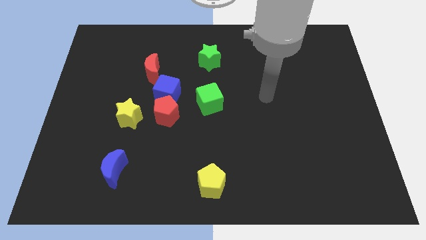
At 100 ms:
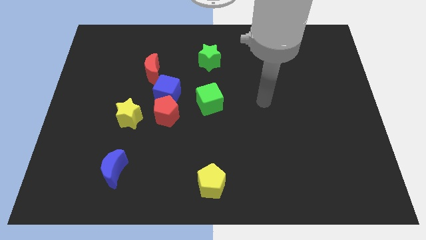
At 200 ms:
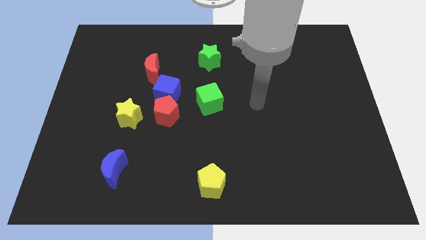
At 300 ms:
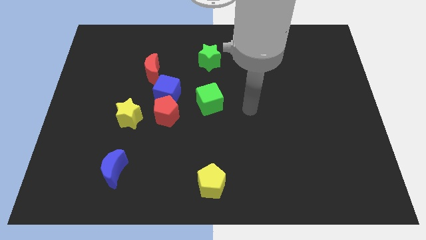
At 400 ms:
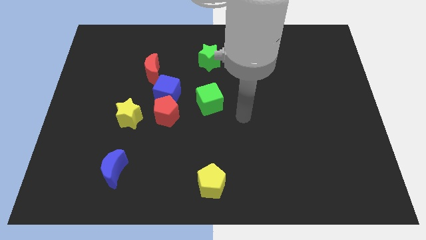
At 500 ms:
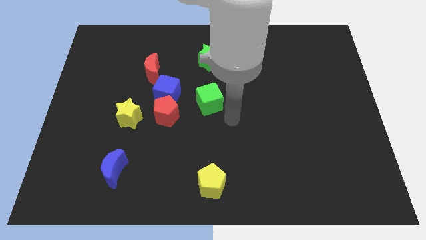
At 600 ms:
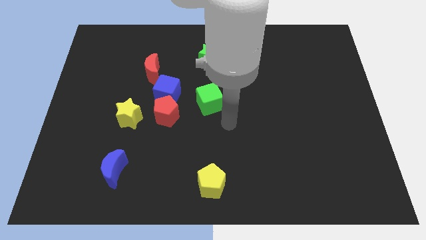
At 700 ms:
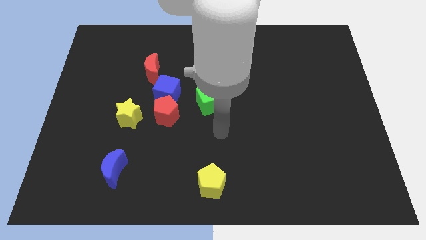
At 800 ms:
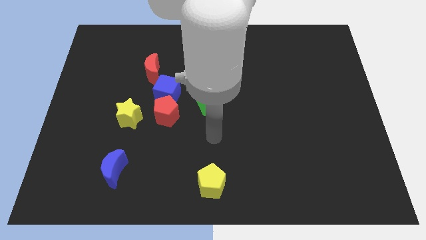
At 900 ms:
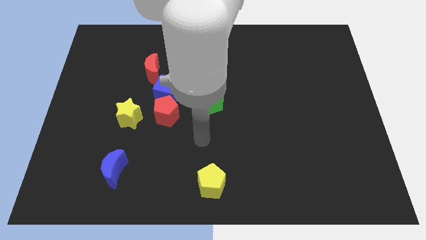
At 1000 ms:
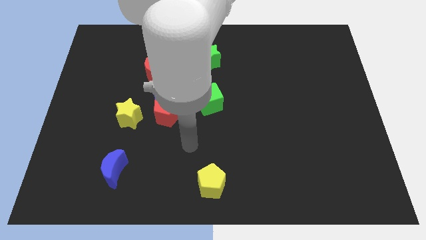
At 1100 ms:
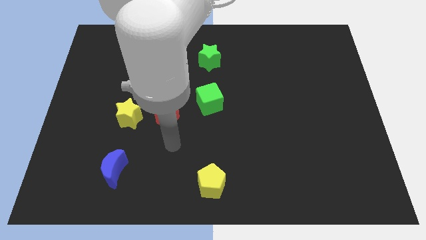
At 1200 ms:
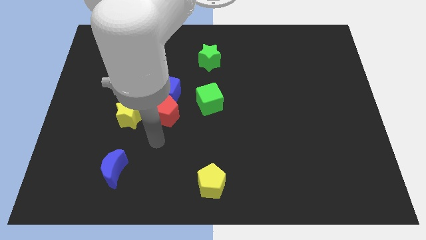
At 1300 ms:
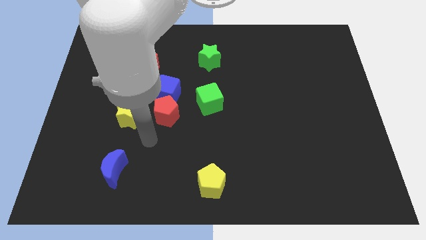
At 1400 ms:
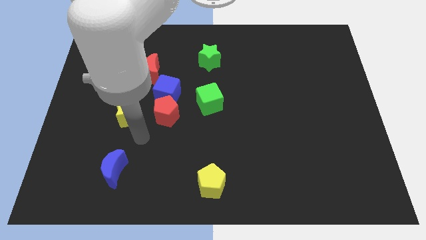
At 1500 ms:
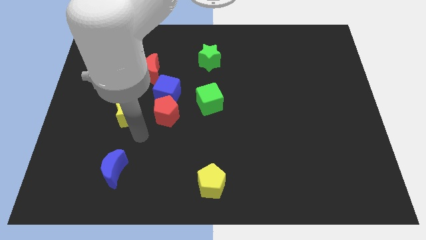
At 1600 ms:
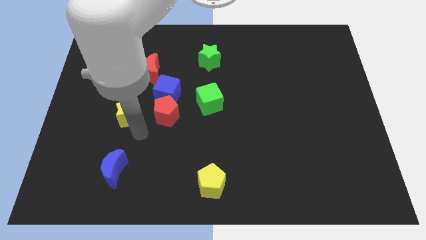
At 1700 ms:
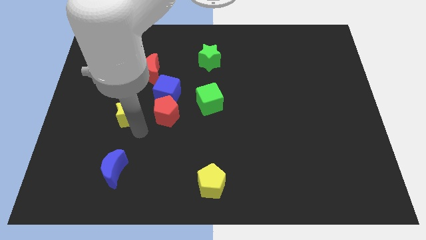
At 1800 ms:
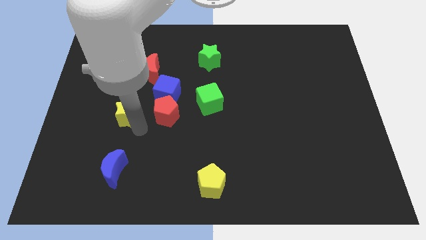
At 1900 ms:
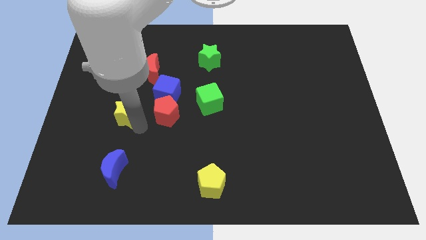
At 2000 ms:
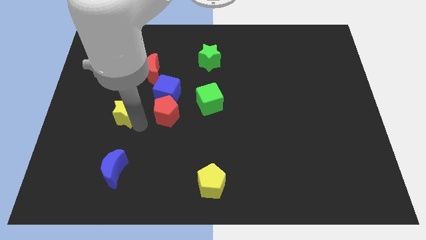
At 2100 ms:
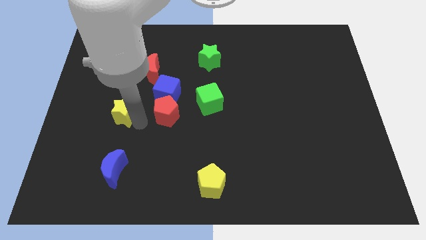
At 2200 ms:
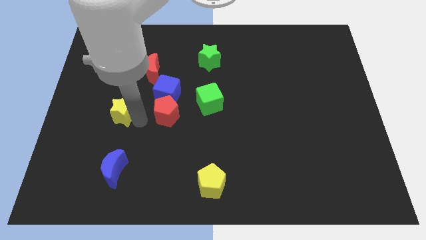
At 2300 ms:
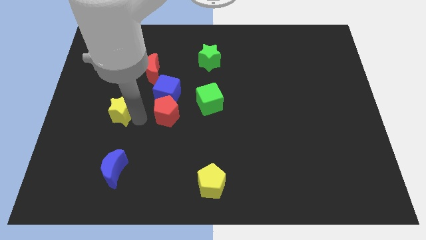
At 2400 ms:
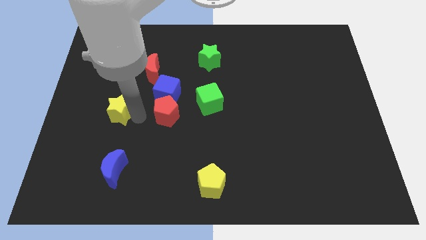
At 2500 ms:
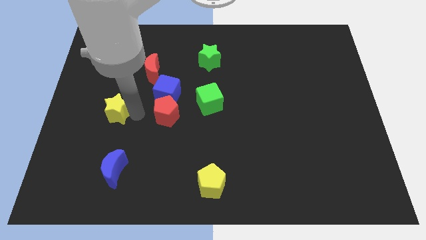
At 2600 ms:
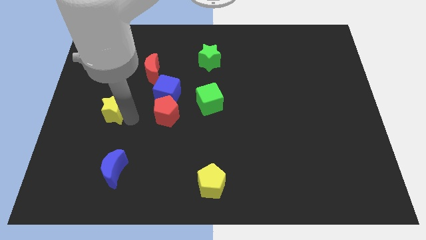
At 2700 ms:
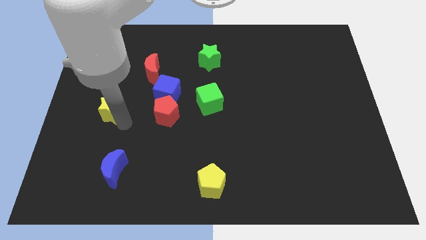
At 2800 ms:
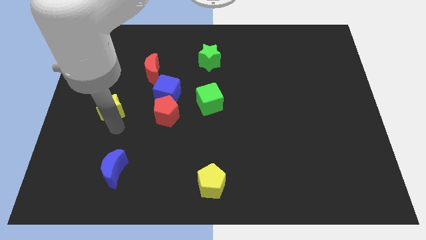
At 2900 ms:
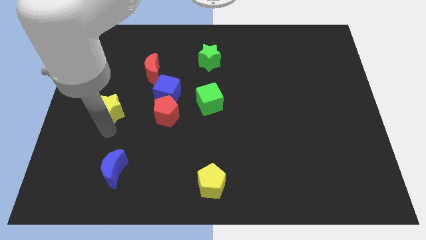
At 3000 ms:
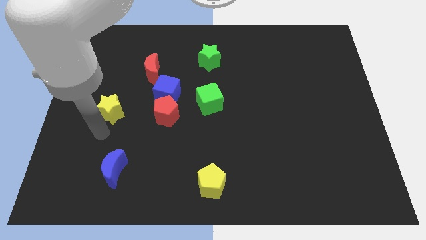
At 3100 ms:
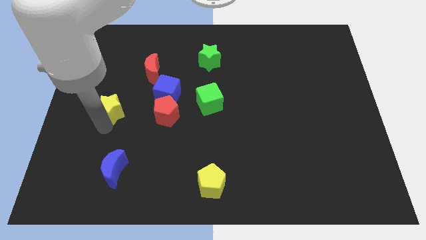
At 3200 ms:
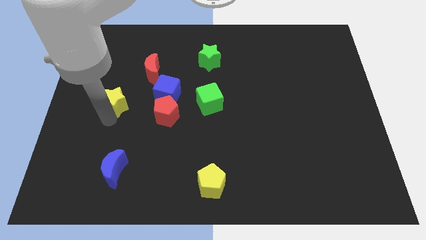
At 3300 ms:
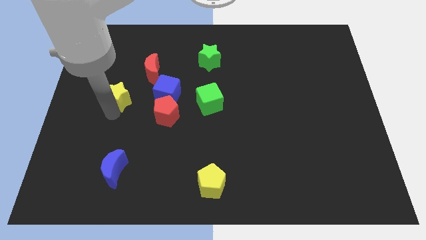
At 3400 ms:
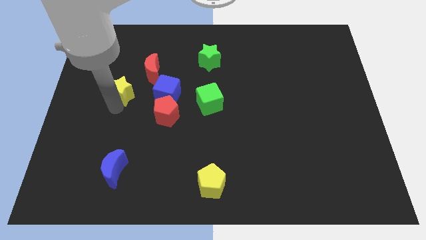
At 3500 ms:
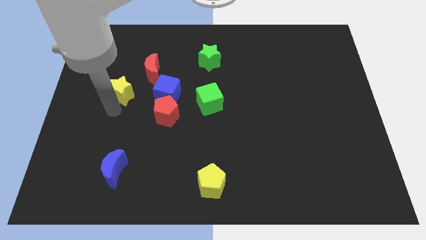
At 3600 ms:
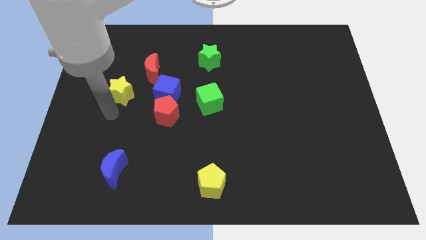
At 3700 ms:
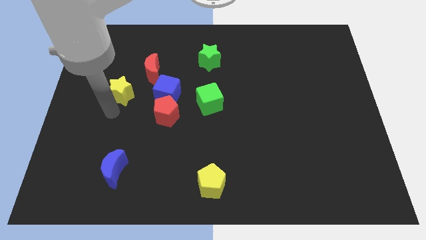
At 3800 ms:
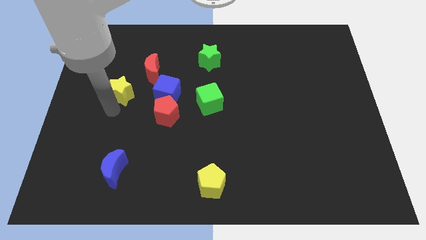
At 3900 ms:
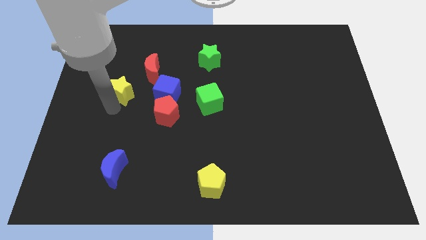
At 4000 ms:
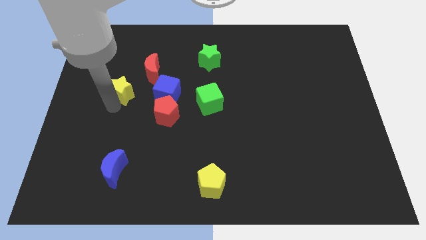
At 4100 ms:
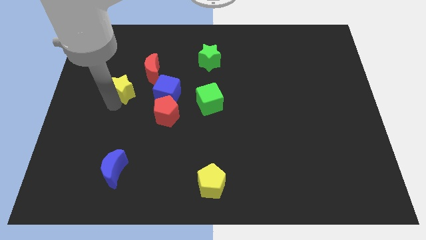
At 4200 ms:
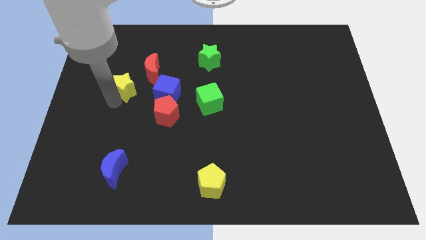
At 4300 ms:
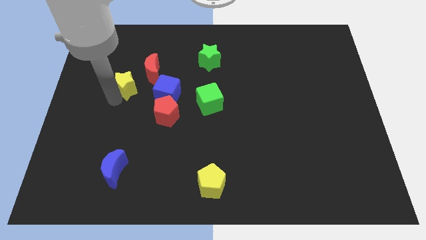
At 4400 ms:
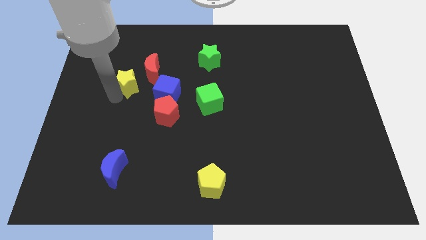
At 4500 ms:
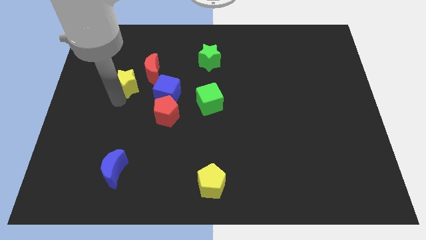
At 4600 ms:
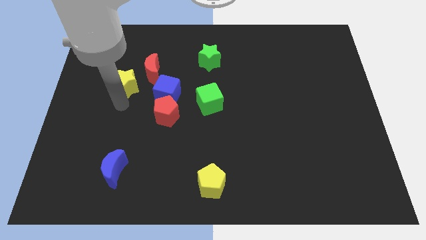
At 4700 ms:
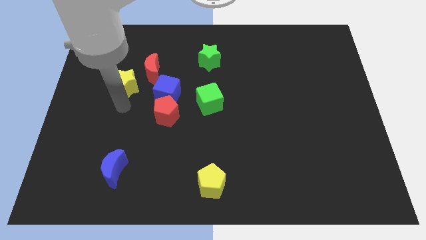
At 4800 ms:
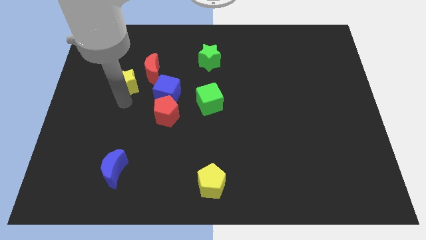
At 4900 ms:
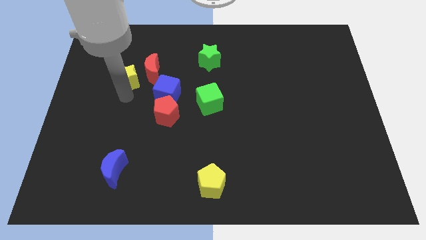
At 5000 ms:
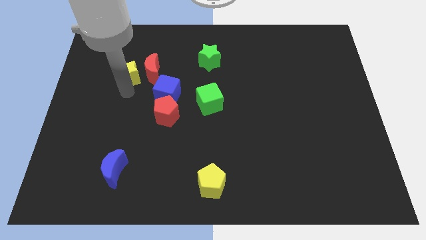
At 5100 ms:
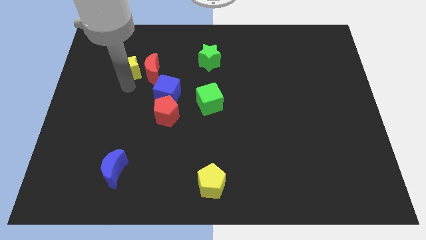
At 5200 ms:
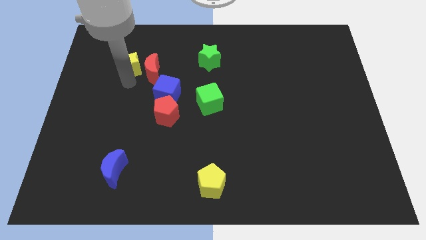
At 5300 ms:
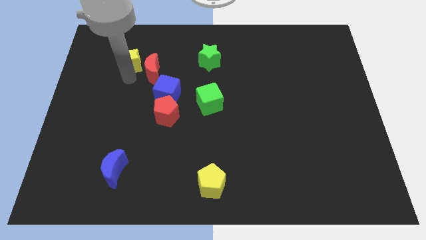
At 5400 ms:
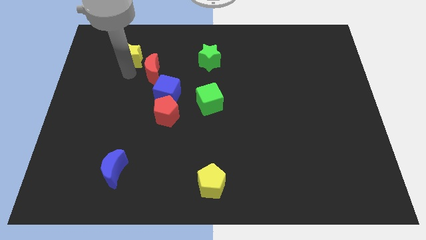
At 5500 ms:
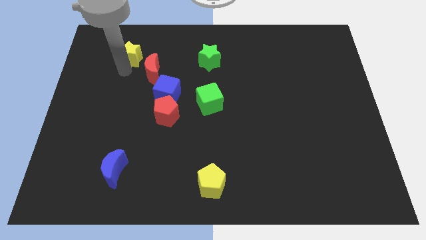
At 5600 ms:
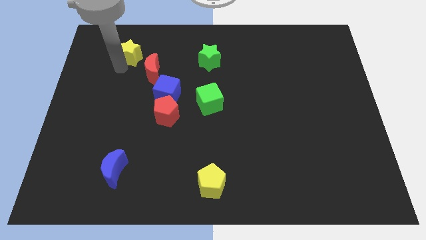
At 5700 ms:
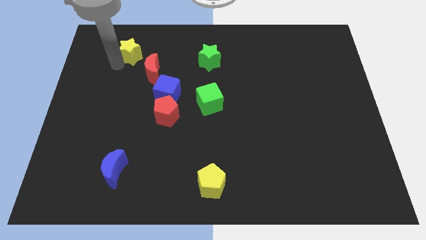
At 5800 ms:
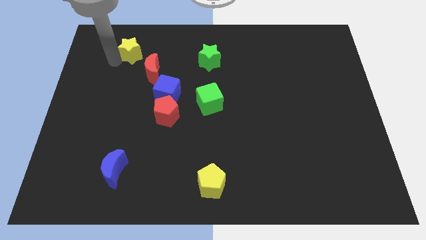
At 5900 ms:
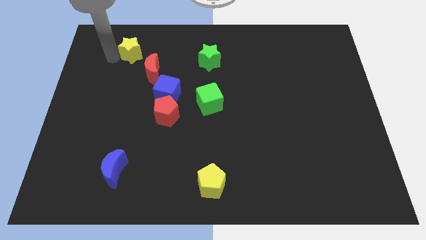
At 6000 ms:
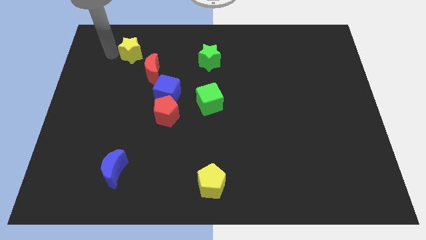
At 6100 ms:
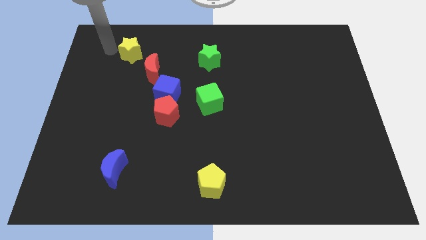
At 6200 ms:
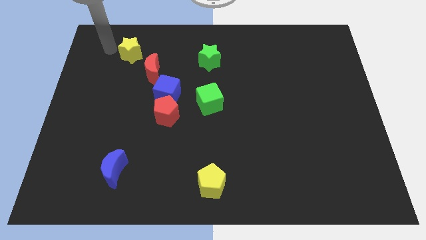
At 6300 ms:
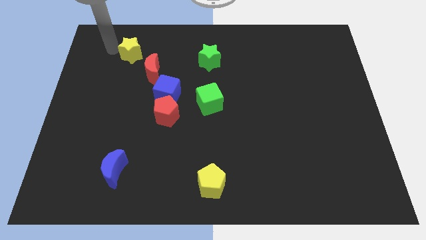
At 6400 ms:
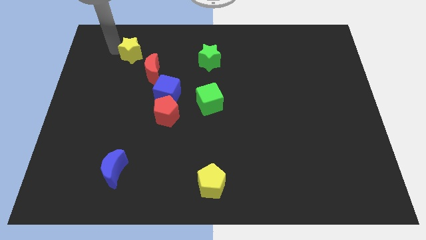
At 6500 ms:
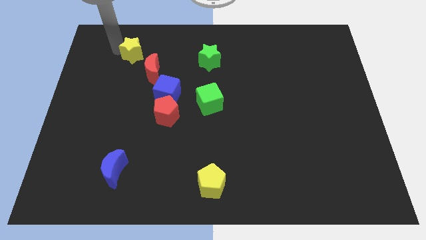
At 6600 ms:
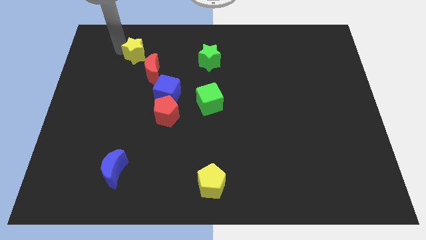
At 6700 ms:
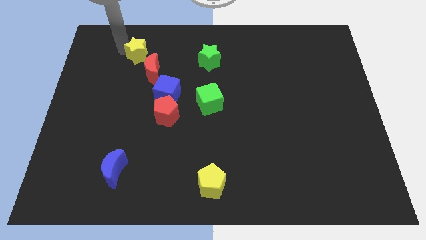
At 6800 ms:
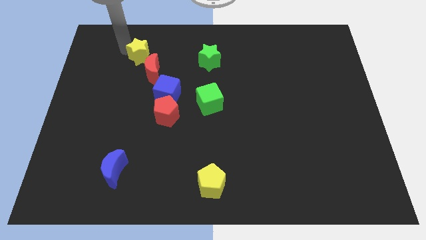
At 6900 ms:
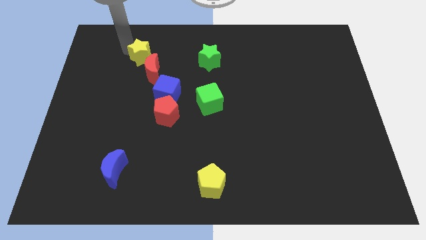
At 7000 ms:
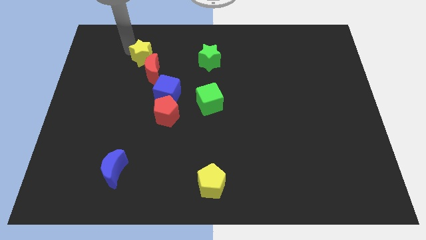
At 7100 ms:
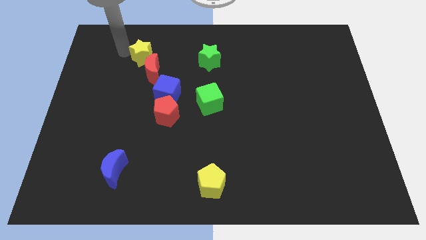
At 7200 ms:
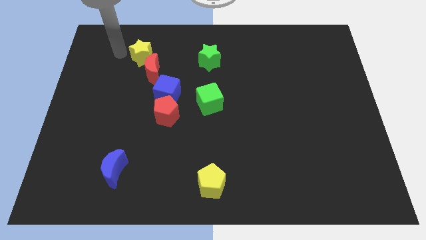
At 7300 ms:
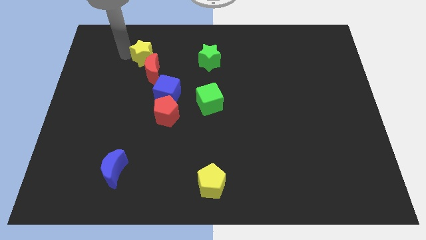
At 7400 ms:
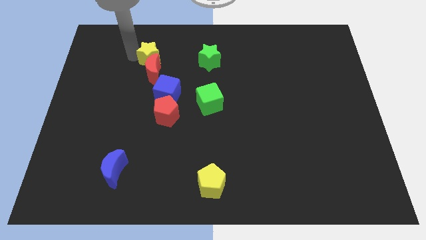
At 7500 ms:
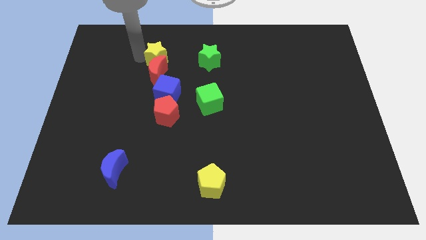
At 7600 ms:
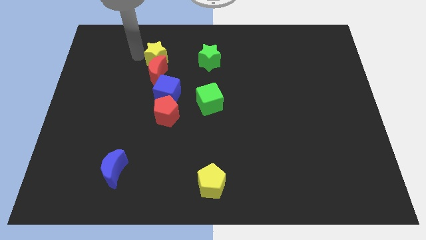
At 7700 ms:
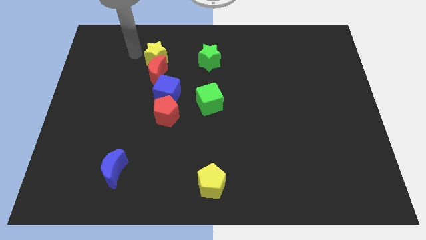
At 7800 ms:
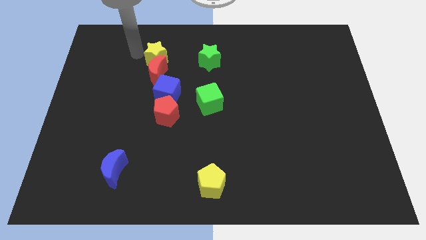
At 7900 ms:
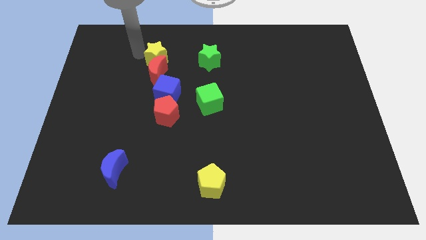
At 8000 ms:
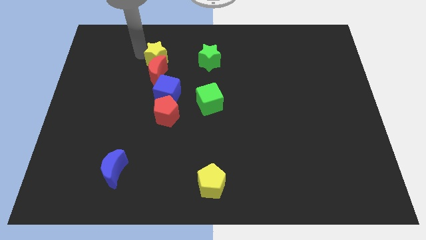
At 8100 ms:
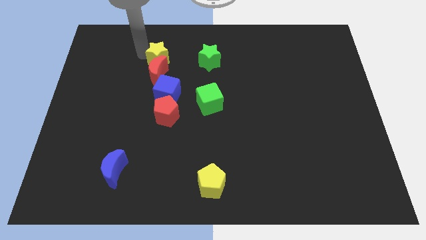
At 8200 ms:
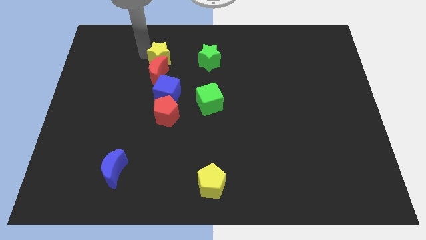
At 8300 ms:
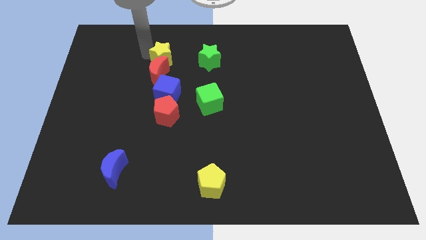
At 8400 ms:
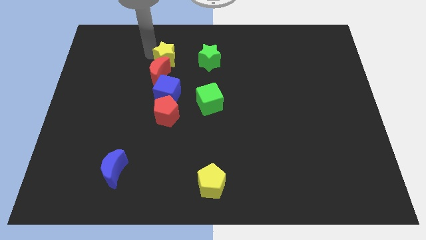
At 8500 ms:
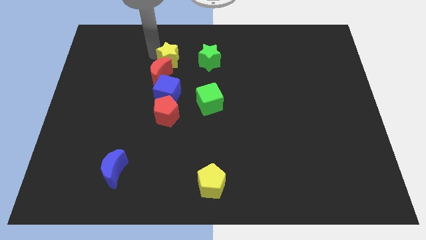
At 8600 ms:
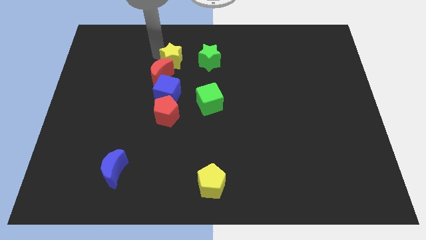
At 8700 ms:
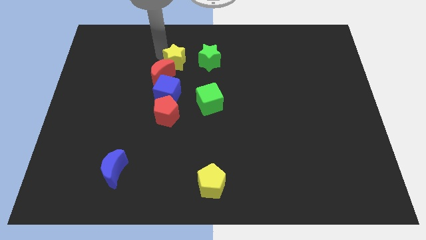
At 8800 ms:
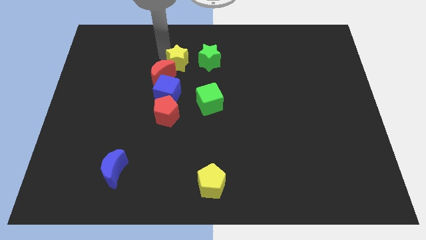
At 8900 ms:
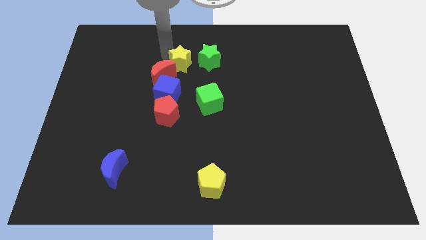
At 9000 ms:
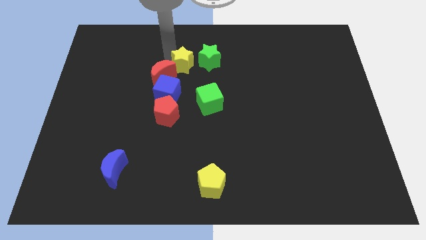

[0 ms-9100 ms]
slide the yellow star to the top right of the blue cube
